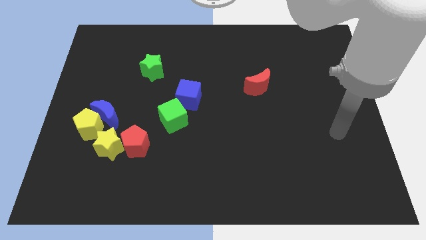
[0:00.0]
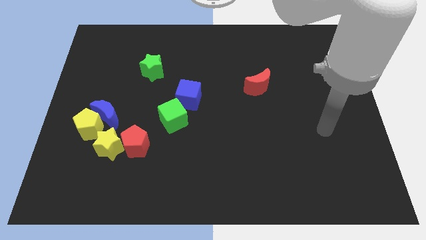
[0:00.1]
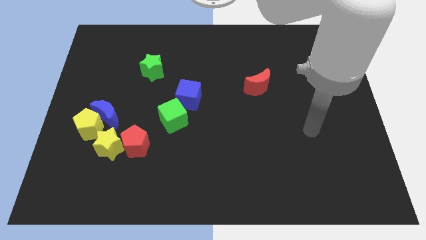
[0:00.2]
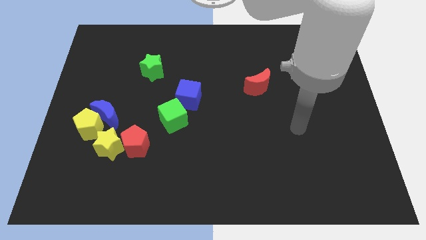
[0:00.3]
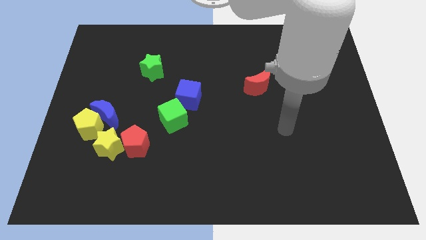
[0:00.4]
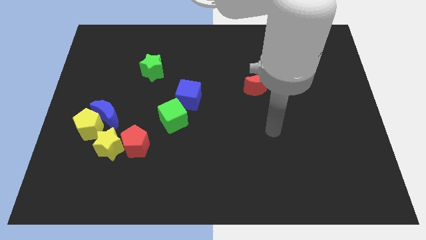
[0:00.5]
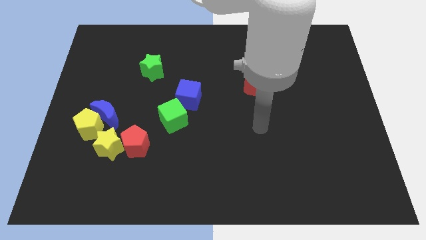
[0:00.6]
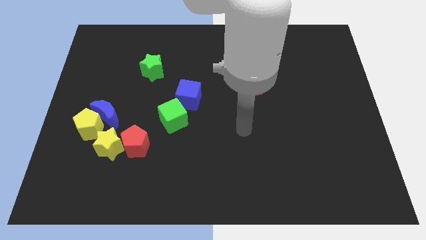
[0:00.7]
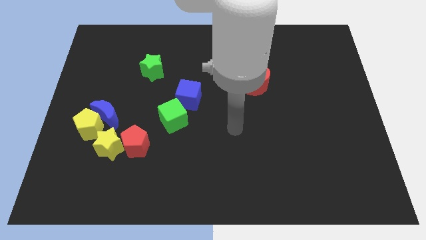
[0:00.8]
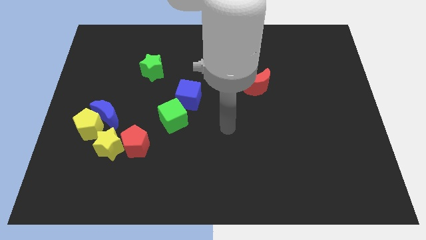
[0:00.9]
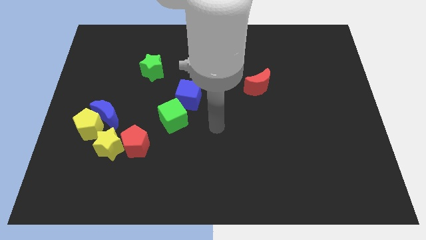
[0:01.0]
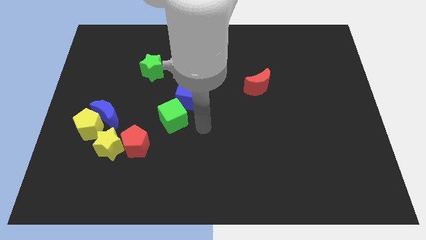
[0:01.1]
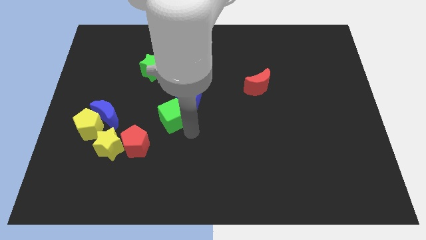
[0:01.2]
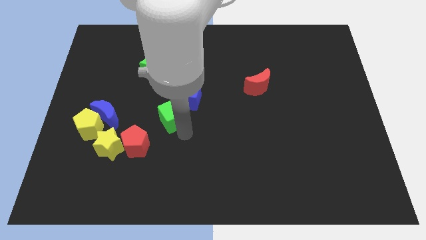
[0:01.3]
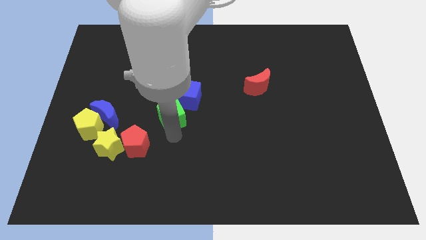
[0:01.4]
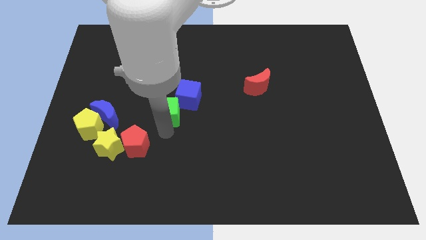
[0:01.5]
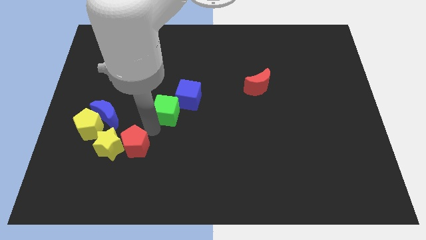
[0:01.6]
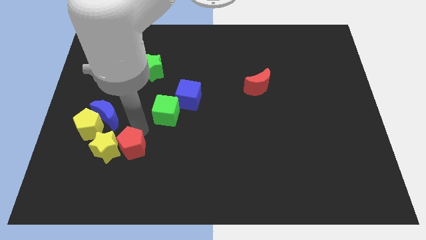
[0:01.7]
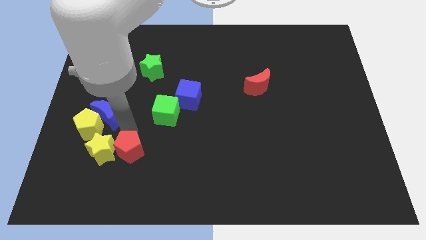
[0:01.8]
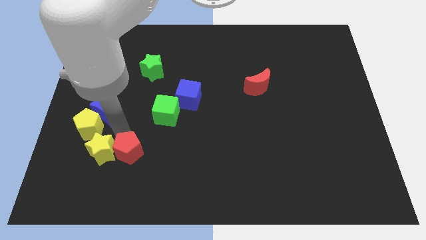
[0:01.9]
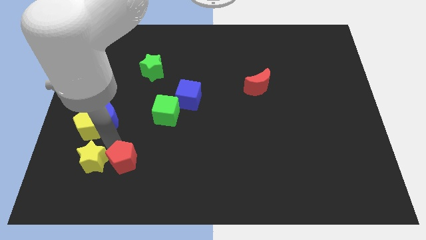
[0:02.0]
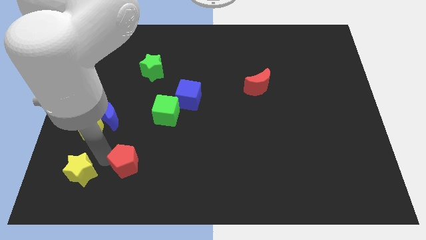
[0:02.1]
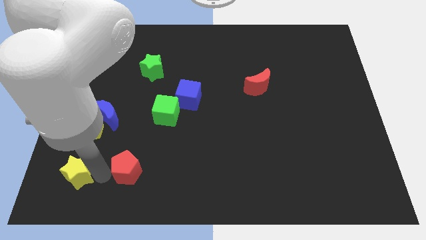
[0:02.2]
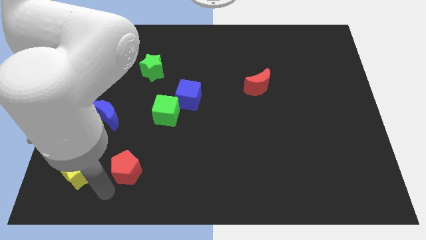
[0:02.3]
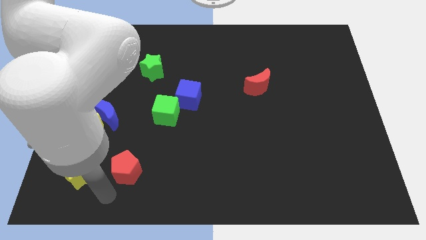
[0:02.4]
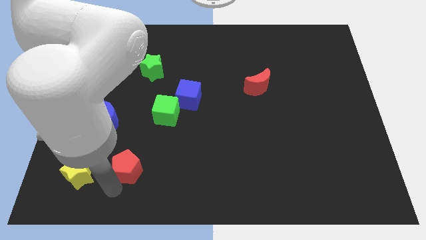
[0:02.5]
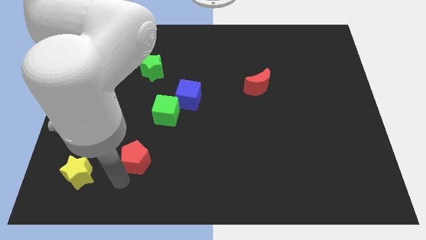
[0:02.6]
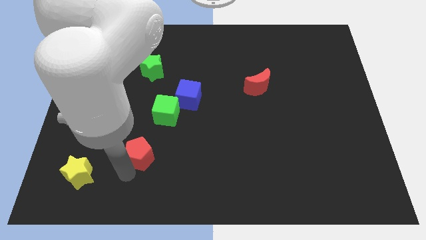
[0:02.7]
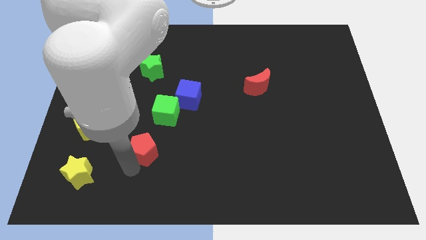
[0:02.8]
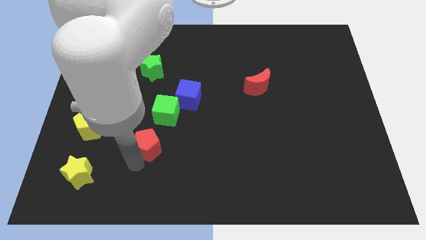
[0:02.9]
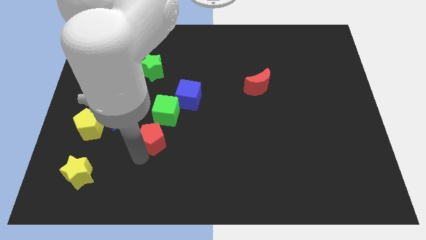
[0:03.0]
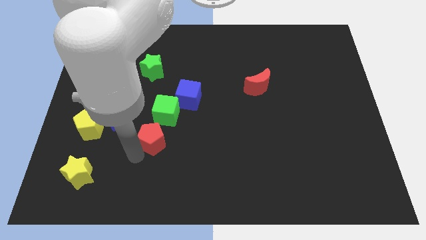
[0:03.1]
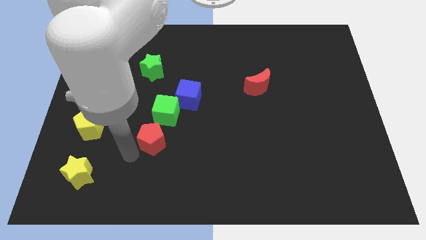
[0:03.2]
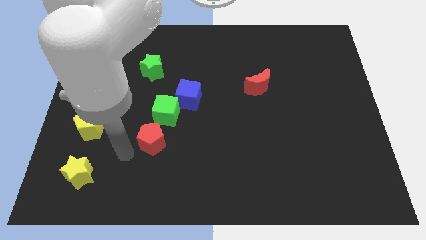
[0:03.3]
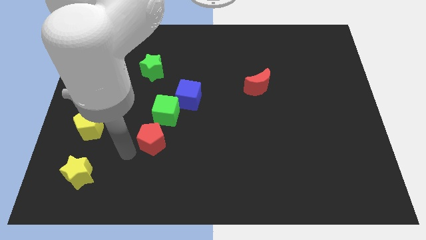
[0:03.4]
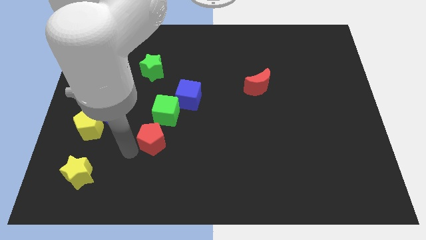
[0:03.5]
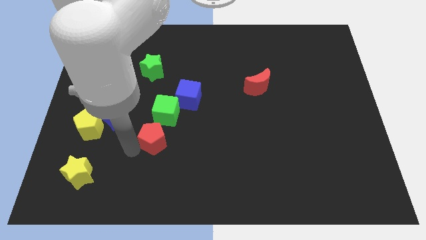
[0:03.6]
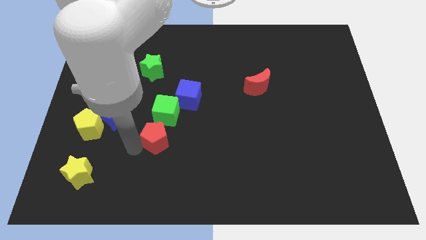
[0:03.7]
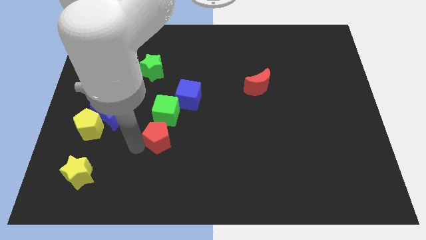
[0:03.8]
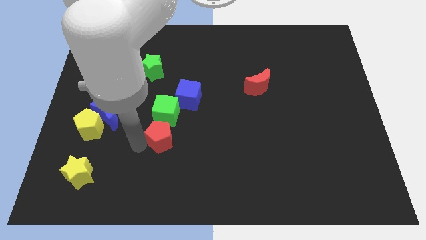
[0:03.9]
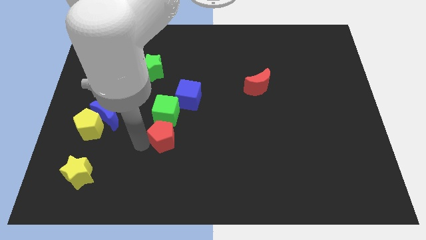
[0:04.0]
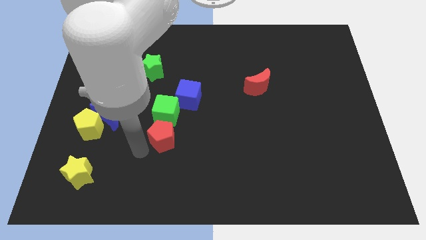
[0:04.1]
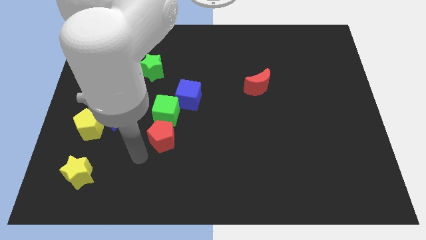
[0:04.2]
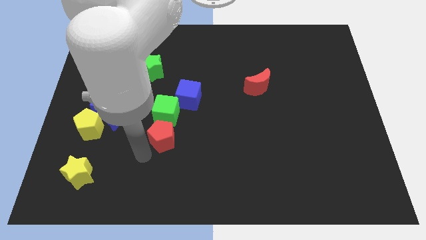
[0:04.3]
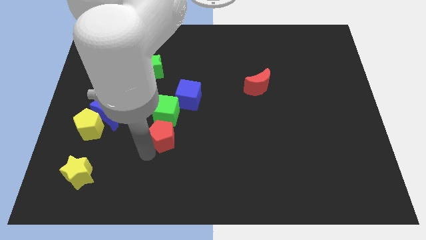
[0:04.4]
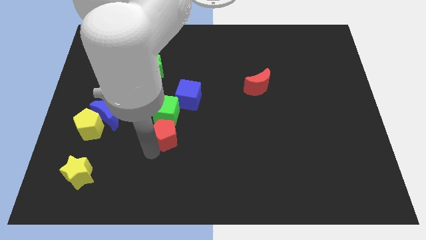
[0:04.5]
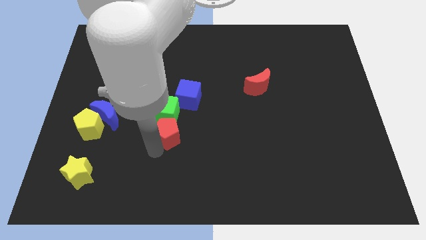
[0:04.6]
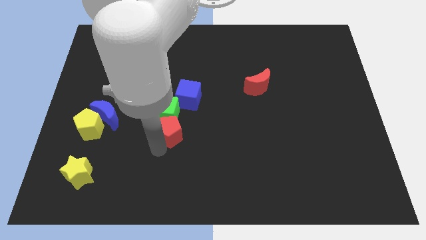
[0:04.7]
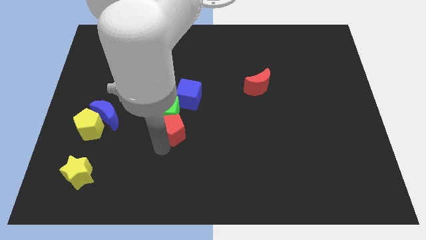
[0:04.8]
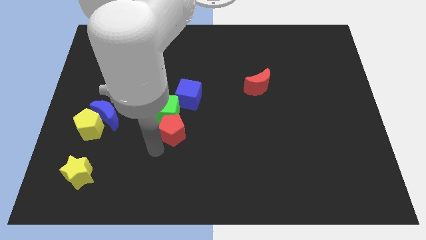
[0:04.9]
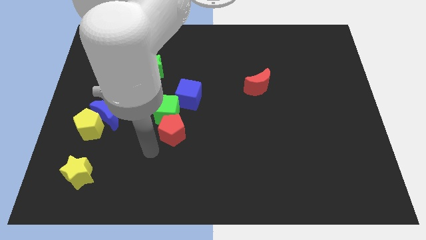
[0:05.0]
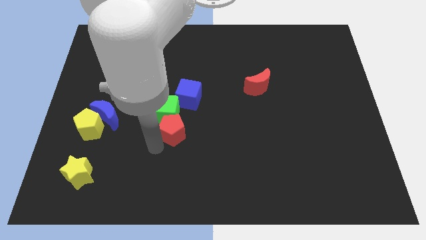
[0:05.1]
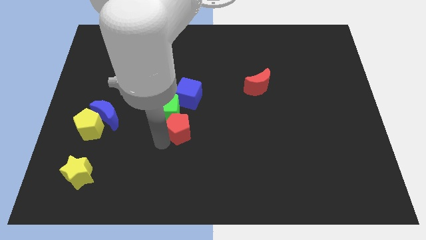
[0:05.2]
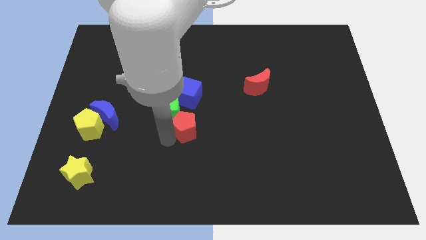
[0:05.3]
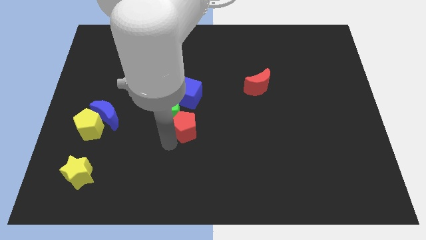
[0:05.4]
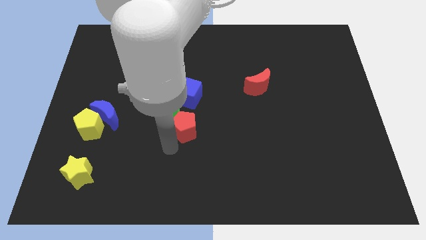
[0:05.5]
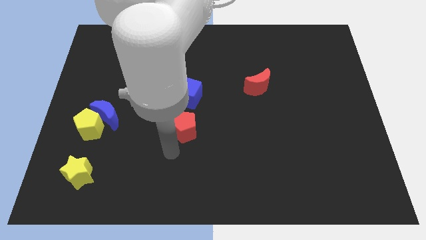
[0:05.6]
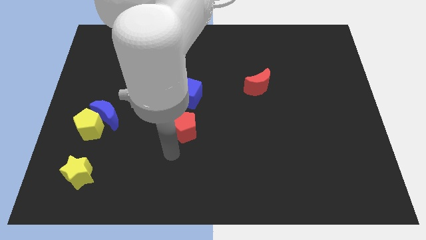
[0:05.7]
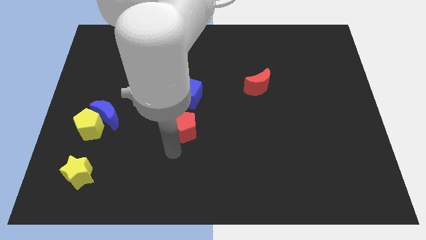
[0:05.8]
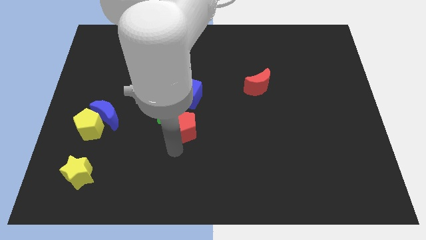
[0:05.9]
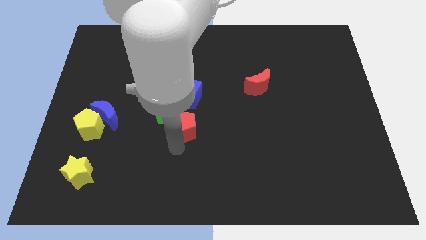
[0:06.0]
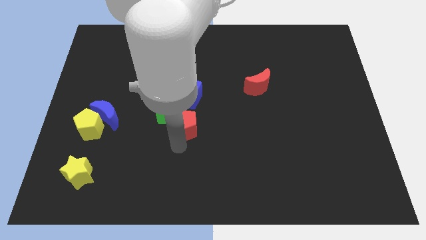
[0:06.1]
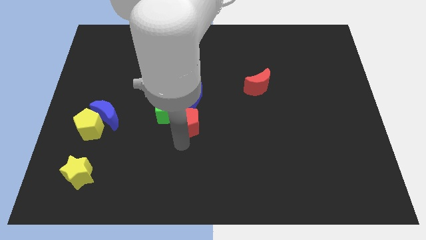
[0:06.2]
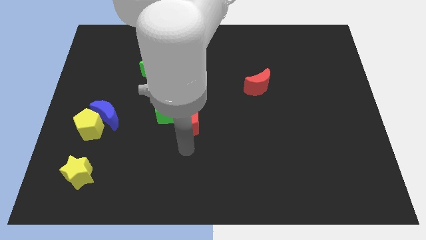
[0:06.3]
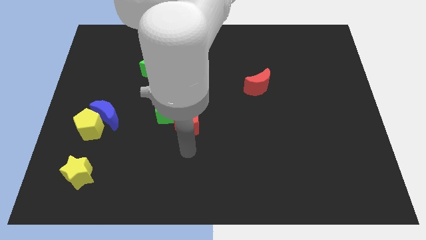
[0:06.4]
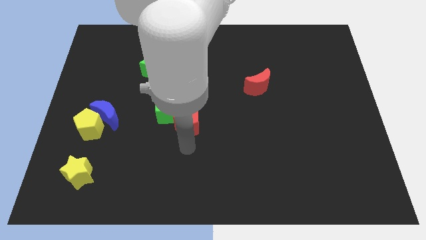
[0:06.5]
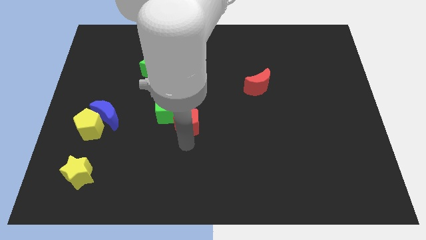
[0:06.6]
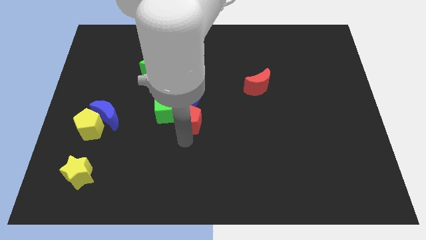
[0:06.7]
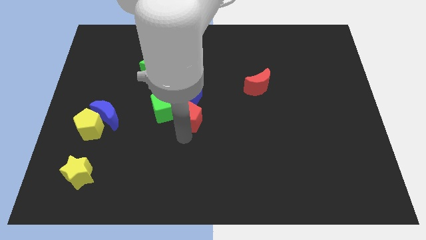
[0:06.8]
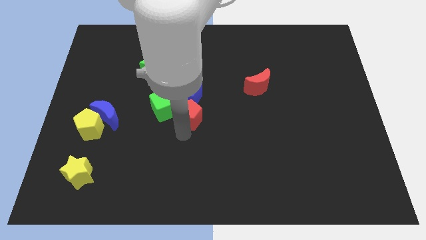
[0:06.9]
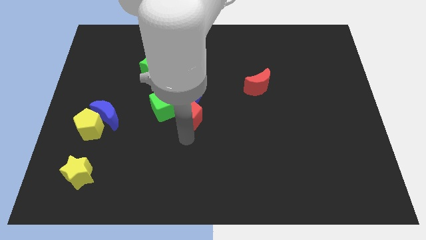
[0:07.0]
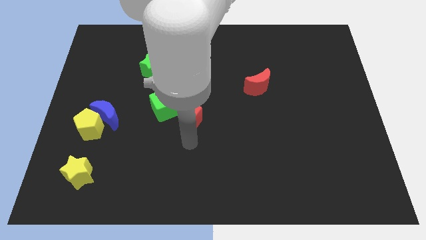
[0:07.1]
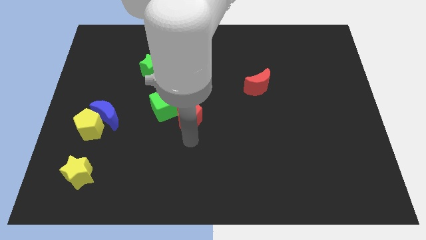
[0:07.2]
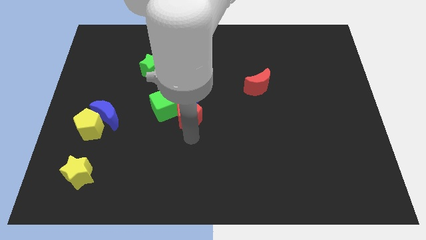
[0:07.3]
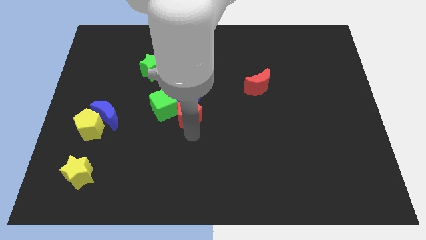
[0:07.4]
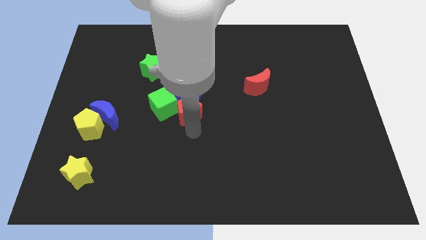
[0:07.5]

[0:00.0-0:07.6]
slide the red pentagon towards the blue cube
